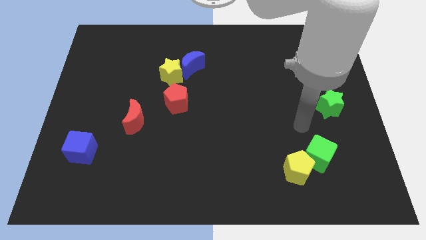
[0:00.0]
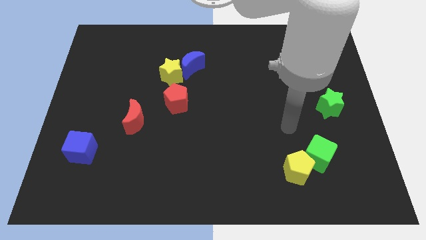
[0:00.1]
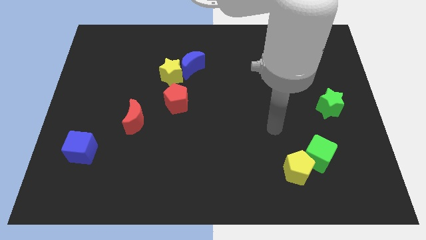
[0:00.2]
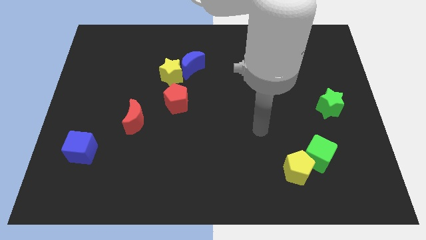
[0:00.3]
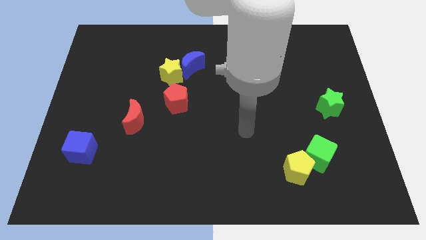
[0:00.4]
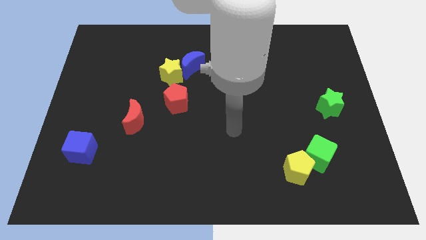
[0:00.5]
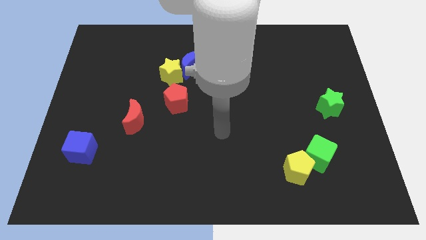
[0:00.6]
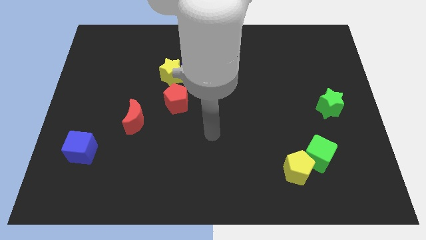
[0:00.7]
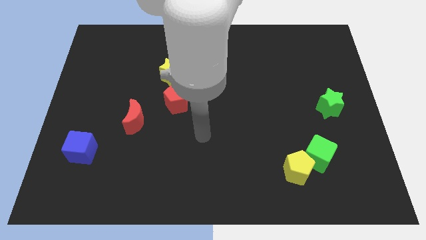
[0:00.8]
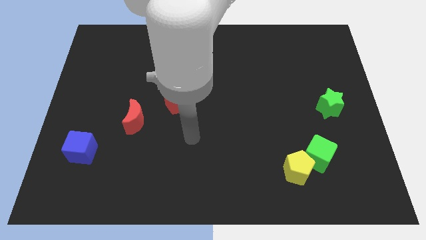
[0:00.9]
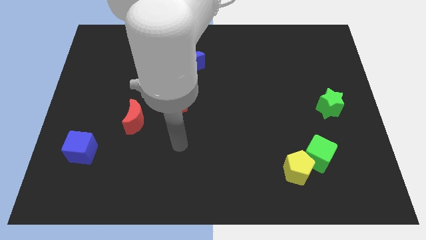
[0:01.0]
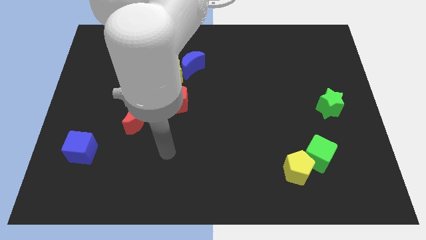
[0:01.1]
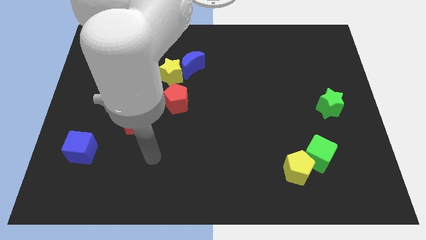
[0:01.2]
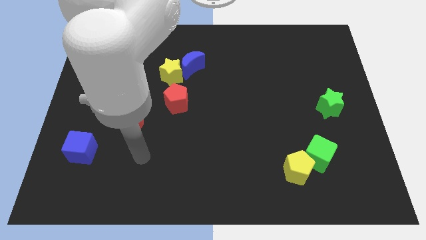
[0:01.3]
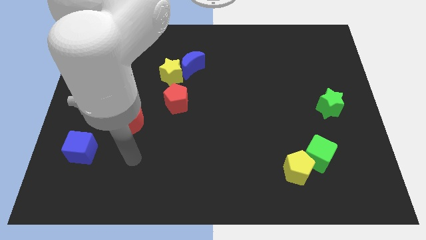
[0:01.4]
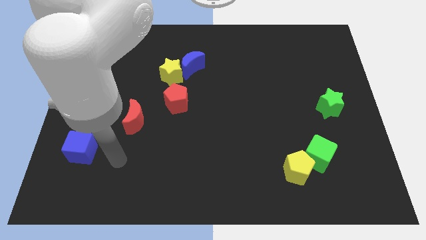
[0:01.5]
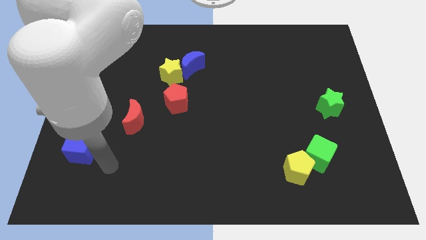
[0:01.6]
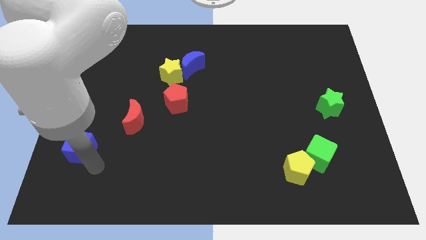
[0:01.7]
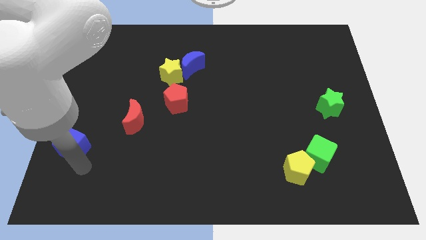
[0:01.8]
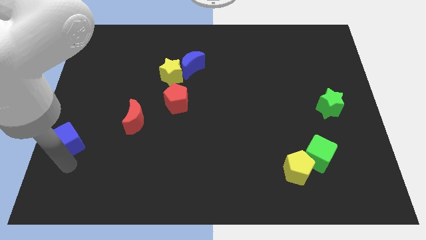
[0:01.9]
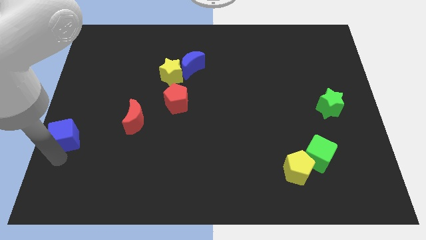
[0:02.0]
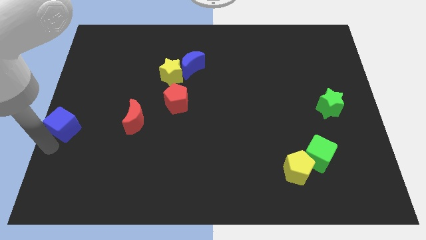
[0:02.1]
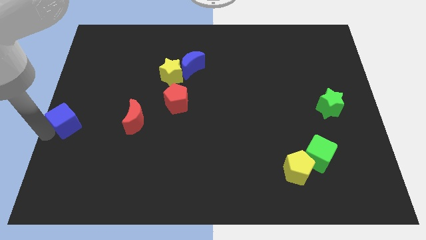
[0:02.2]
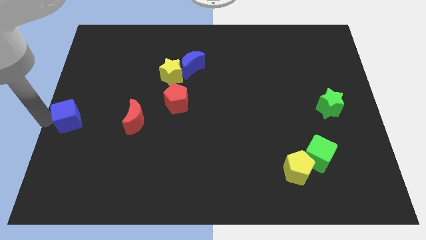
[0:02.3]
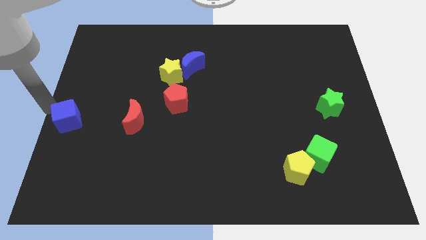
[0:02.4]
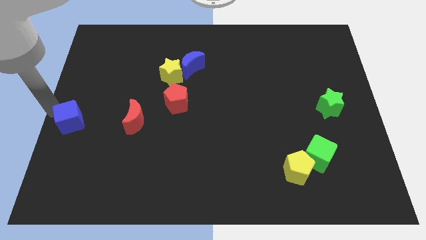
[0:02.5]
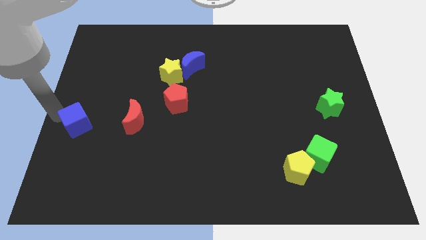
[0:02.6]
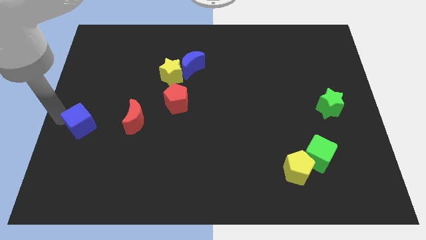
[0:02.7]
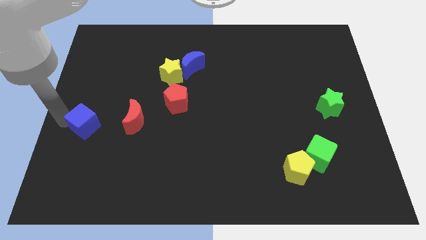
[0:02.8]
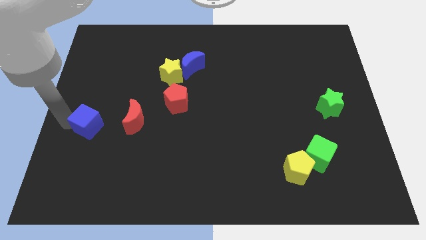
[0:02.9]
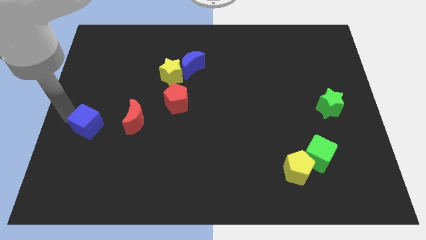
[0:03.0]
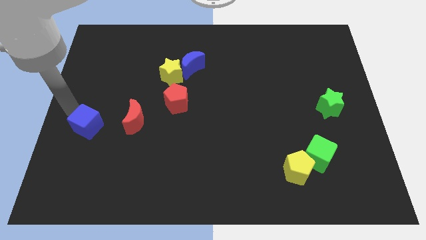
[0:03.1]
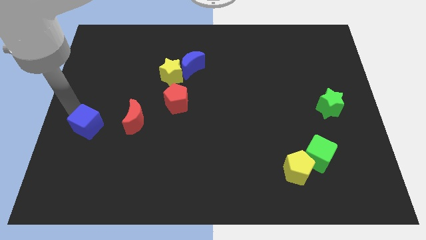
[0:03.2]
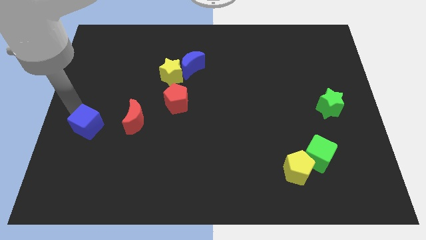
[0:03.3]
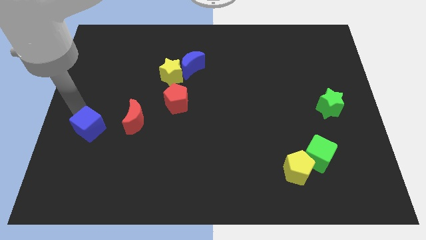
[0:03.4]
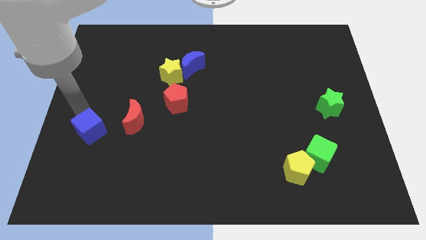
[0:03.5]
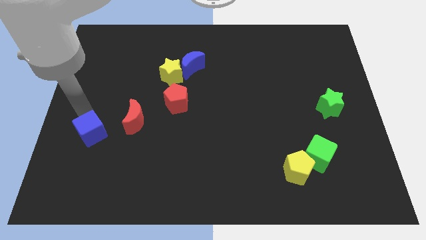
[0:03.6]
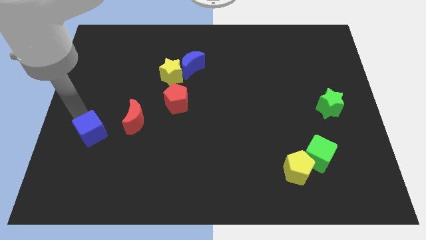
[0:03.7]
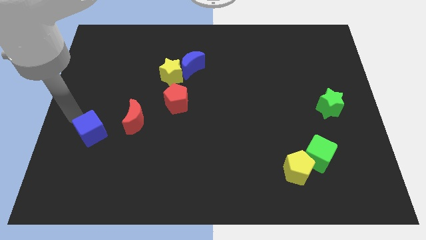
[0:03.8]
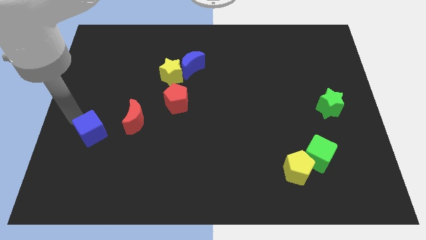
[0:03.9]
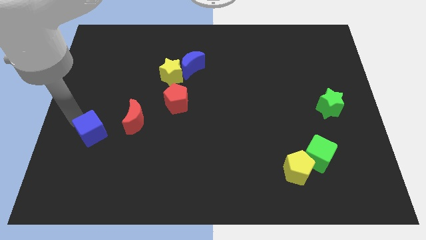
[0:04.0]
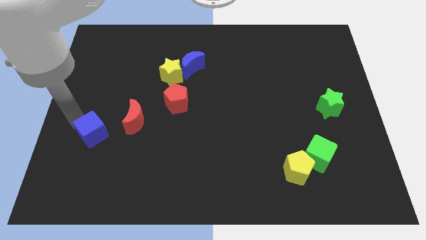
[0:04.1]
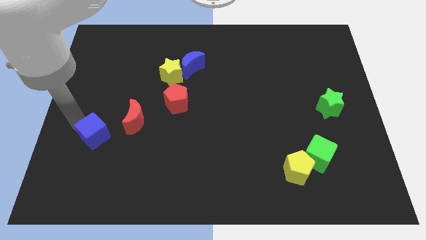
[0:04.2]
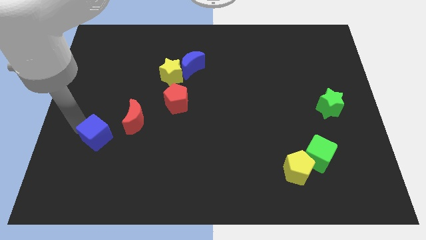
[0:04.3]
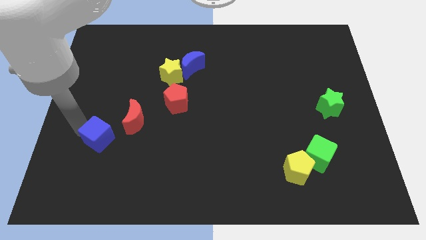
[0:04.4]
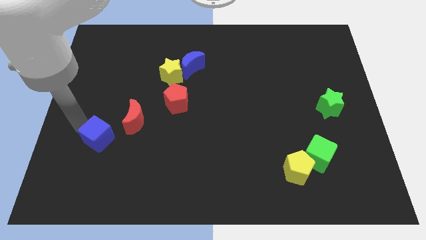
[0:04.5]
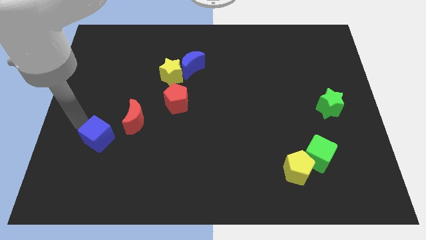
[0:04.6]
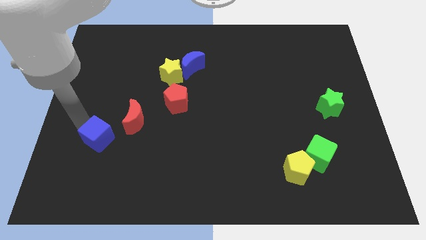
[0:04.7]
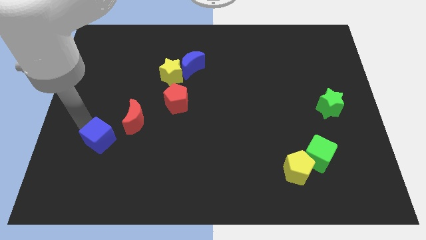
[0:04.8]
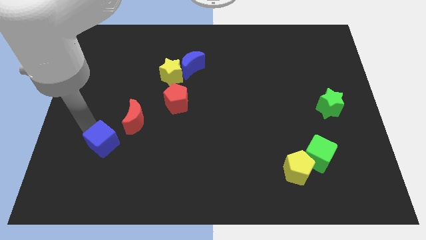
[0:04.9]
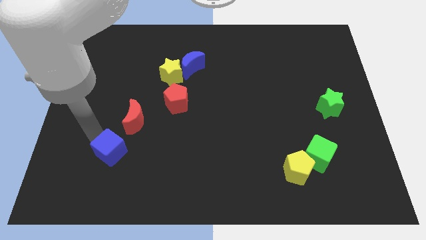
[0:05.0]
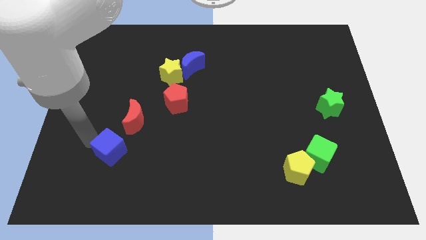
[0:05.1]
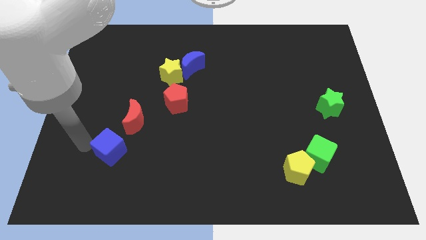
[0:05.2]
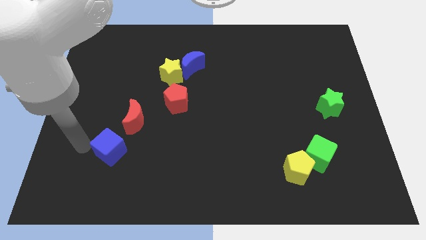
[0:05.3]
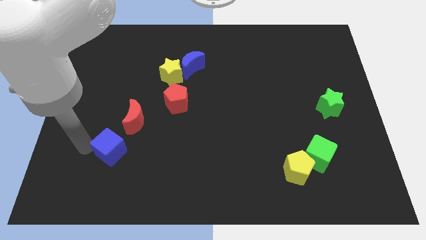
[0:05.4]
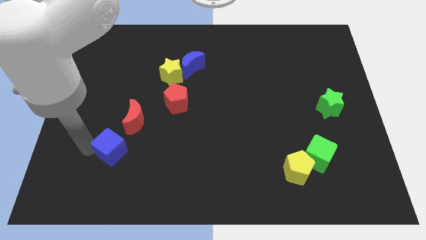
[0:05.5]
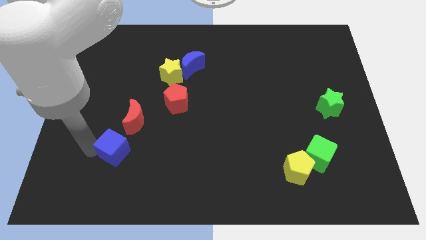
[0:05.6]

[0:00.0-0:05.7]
push the blue cube a little bit to the right

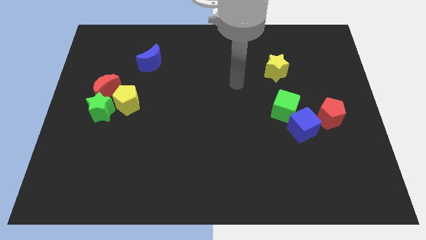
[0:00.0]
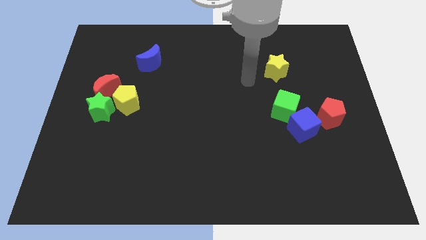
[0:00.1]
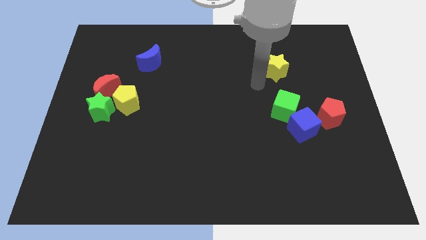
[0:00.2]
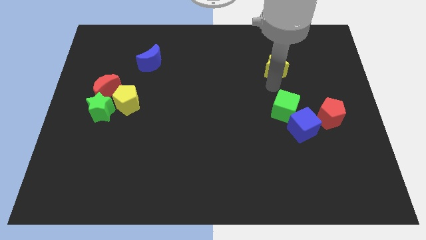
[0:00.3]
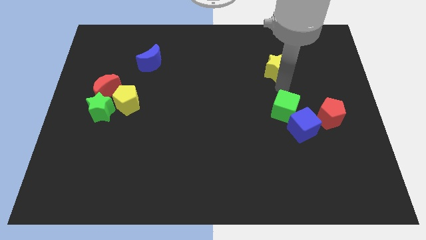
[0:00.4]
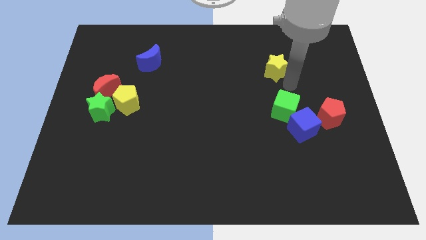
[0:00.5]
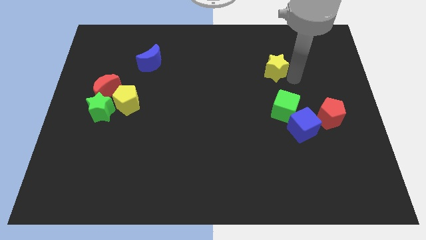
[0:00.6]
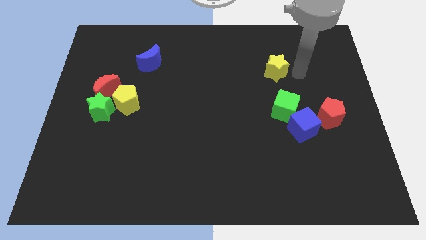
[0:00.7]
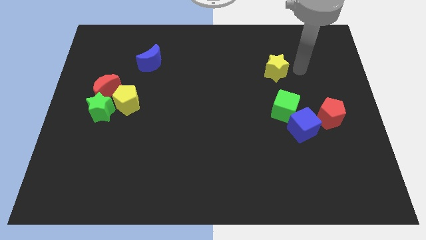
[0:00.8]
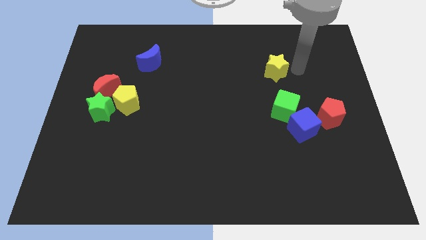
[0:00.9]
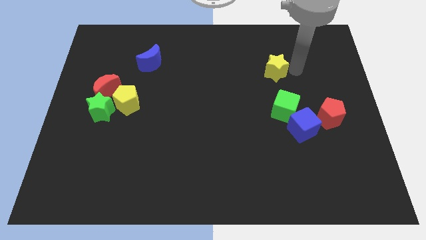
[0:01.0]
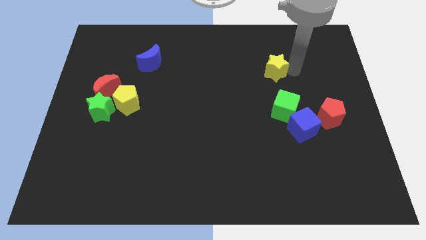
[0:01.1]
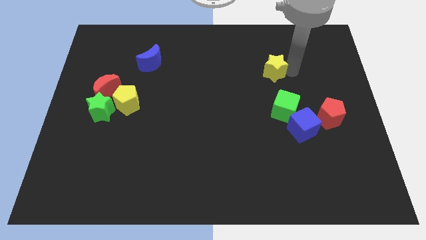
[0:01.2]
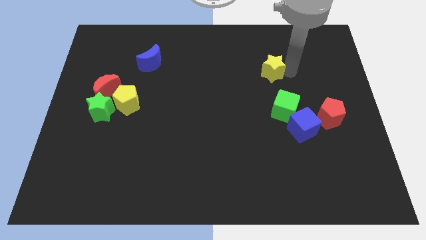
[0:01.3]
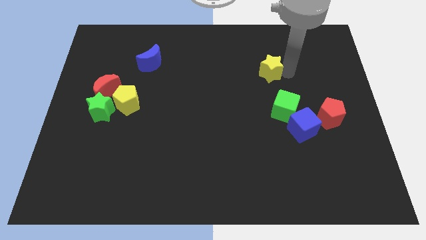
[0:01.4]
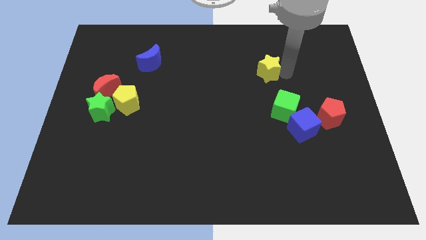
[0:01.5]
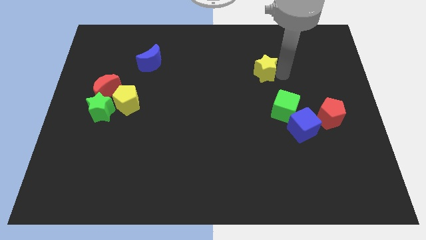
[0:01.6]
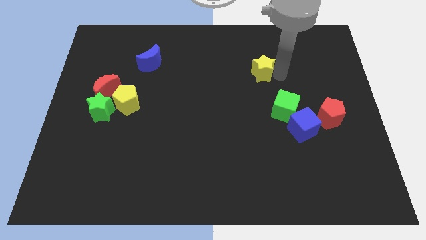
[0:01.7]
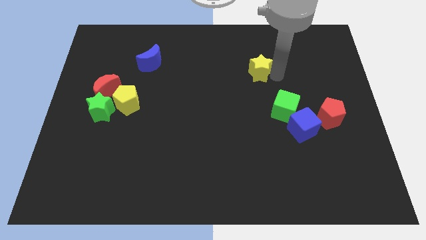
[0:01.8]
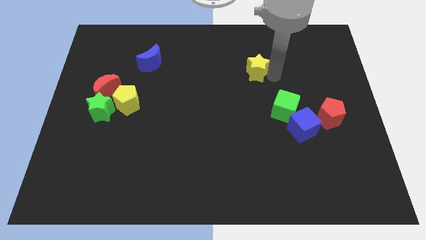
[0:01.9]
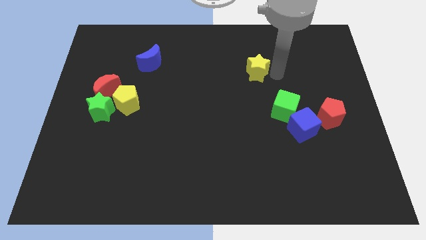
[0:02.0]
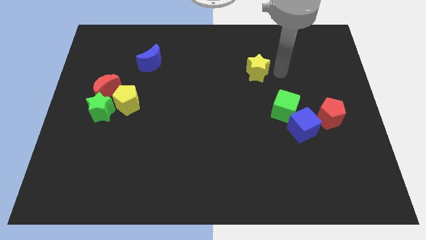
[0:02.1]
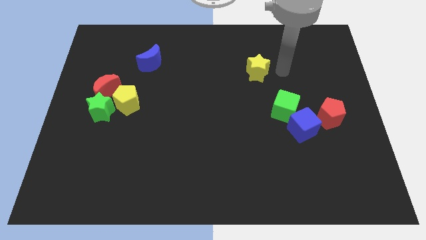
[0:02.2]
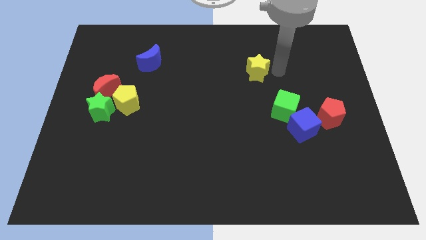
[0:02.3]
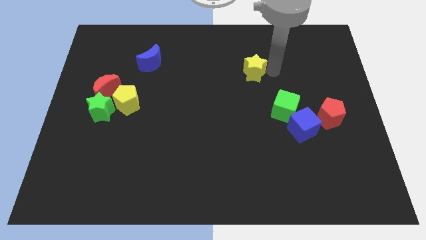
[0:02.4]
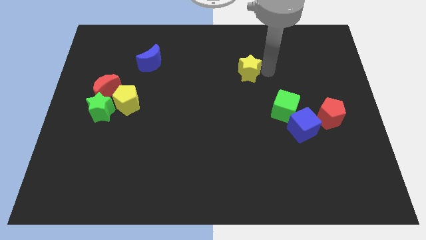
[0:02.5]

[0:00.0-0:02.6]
push the yellow star a little to the left
